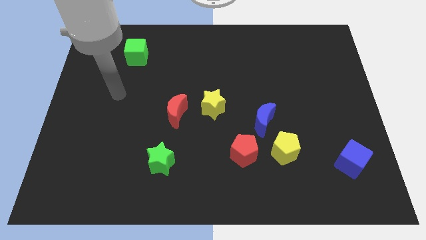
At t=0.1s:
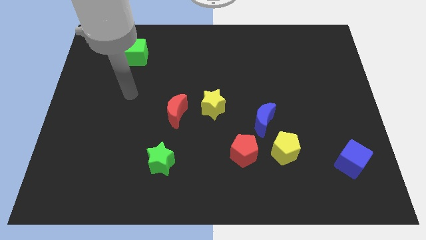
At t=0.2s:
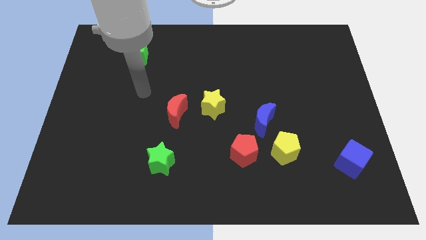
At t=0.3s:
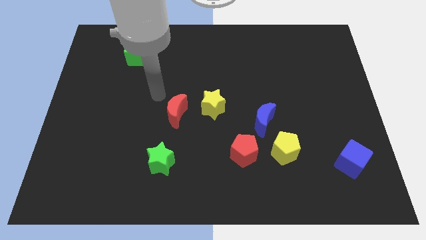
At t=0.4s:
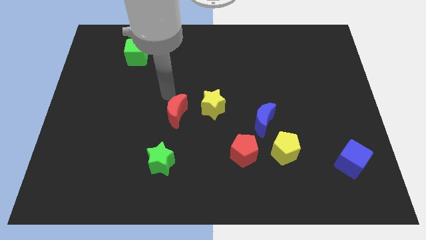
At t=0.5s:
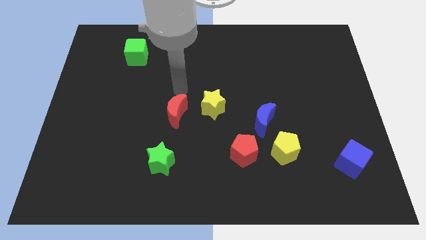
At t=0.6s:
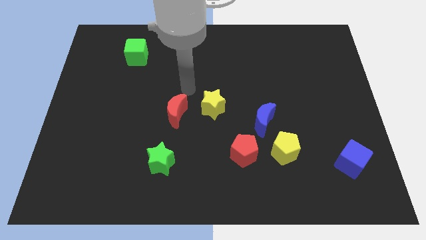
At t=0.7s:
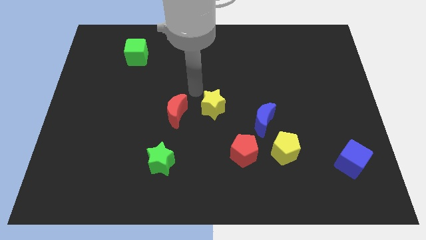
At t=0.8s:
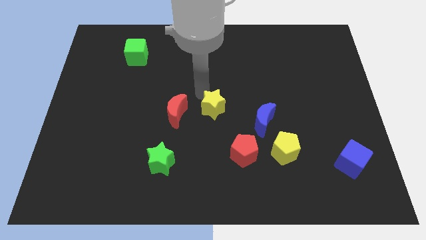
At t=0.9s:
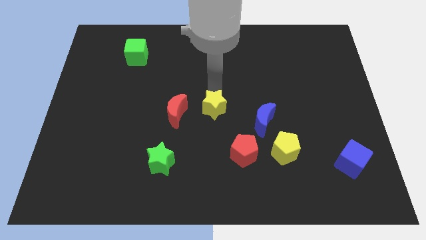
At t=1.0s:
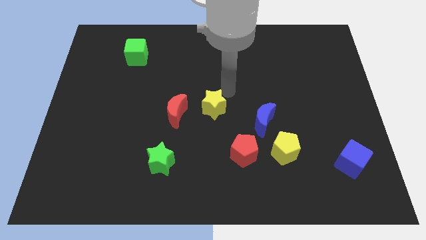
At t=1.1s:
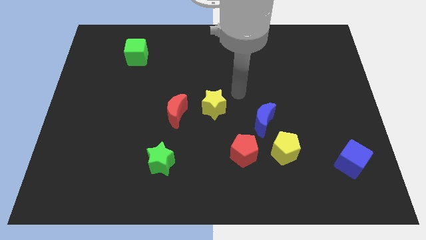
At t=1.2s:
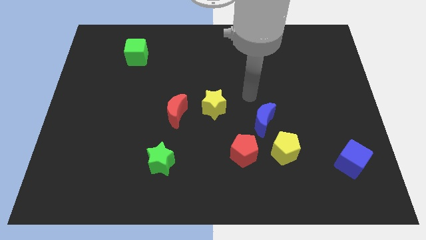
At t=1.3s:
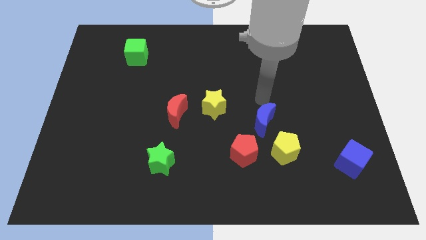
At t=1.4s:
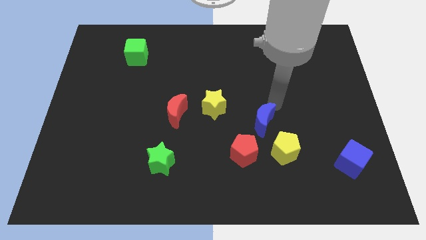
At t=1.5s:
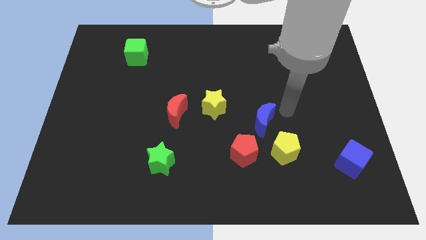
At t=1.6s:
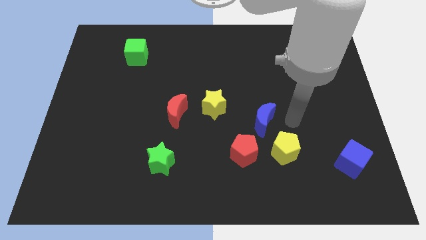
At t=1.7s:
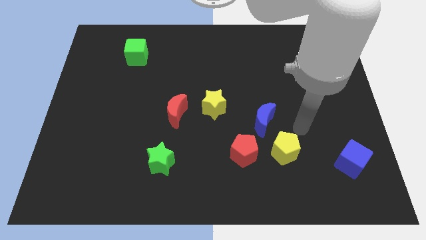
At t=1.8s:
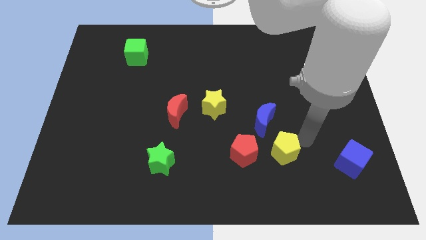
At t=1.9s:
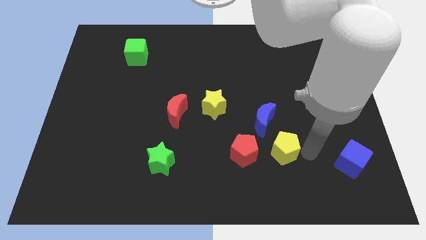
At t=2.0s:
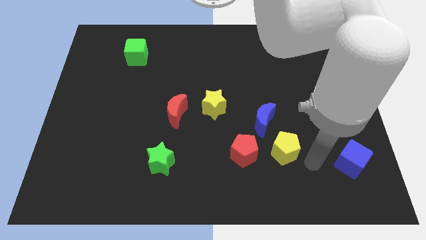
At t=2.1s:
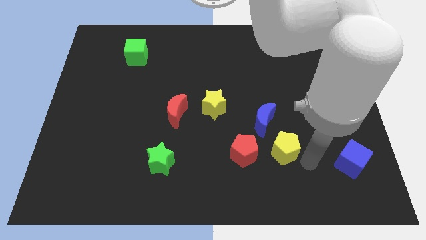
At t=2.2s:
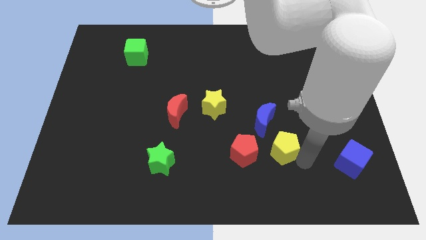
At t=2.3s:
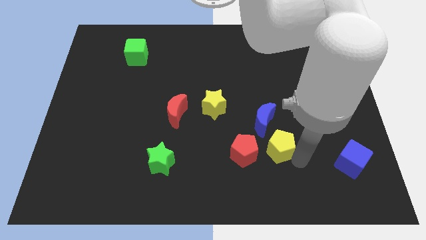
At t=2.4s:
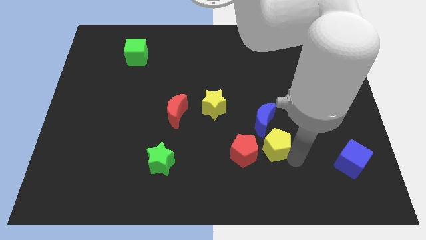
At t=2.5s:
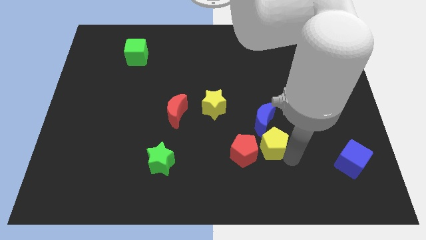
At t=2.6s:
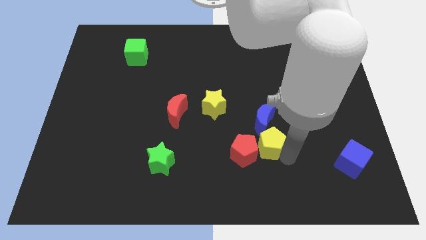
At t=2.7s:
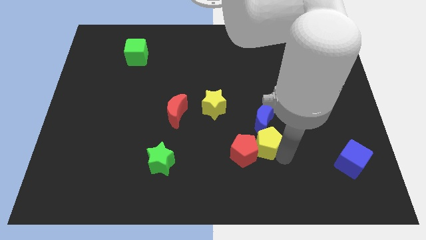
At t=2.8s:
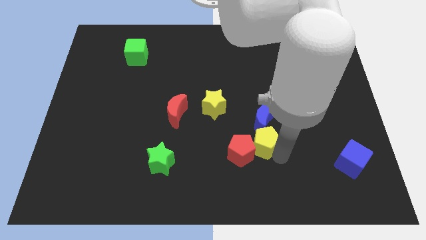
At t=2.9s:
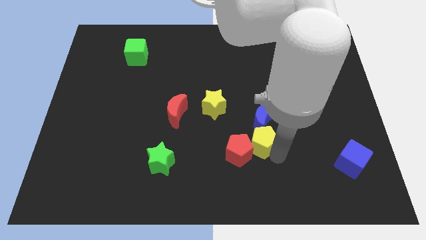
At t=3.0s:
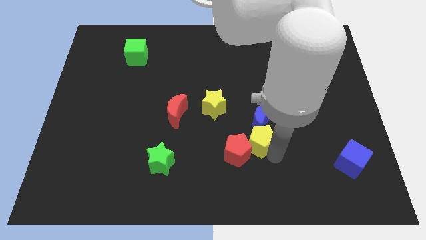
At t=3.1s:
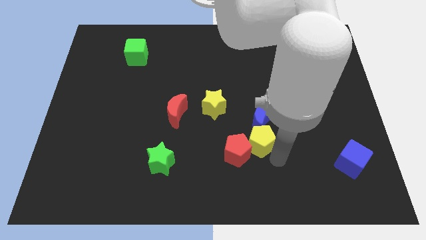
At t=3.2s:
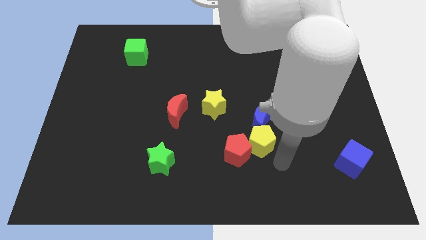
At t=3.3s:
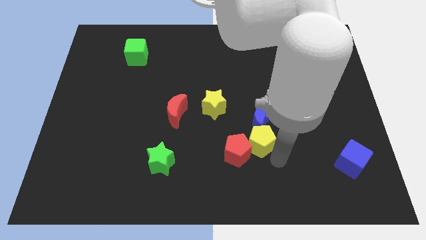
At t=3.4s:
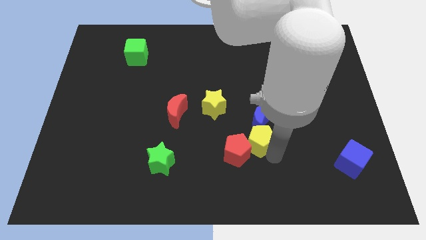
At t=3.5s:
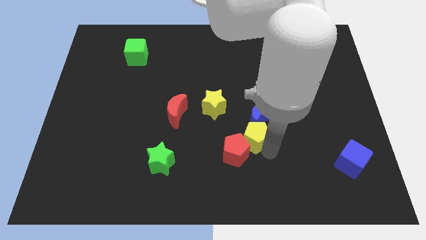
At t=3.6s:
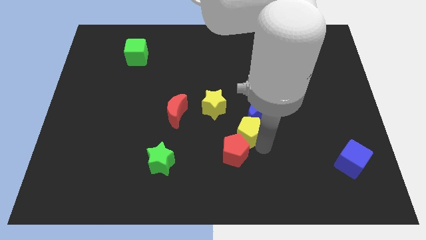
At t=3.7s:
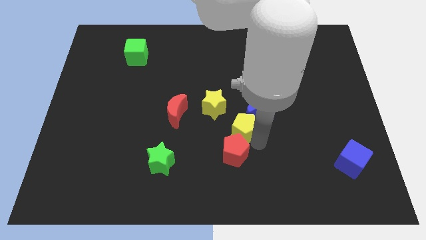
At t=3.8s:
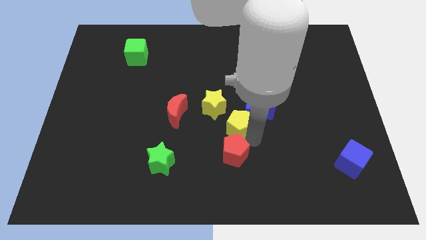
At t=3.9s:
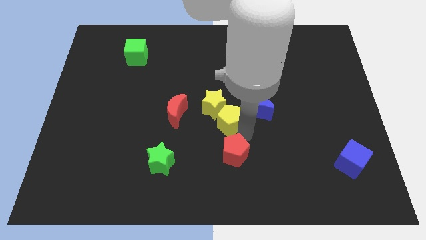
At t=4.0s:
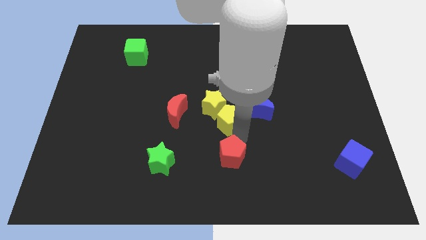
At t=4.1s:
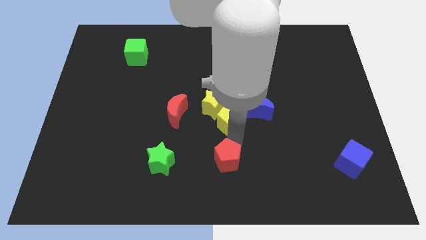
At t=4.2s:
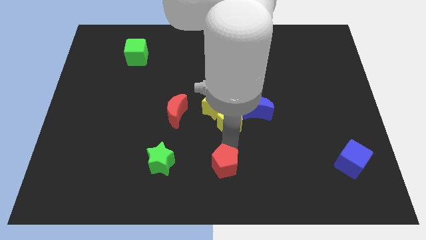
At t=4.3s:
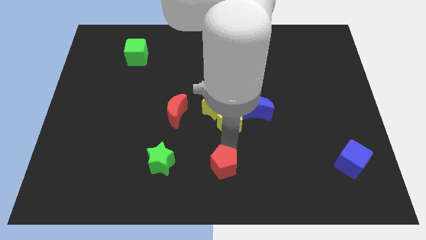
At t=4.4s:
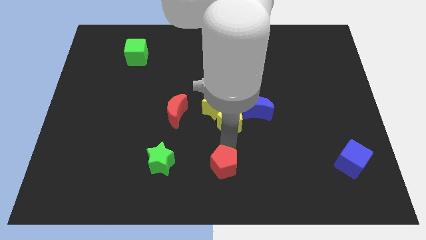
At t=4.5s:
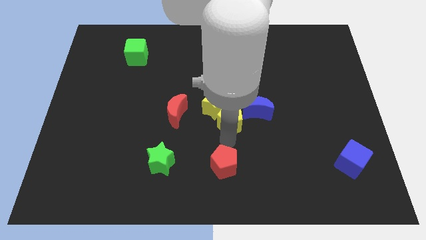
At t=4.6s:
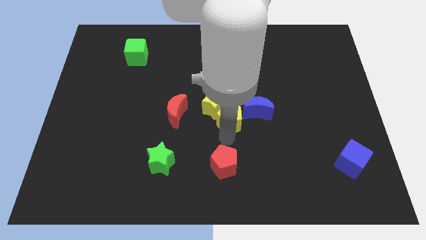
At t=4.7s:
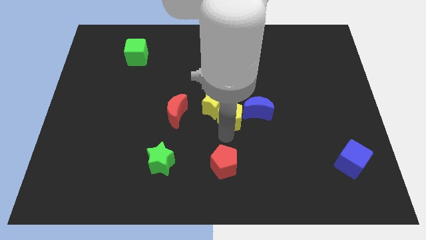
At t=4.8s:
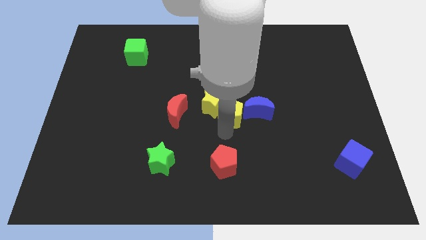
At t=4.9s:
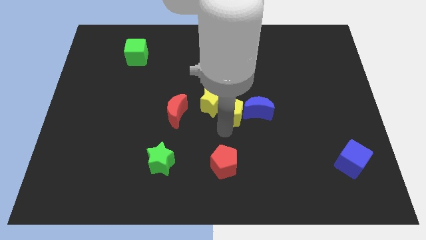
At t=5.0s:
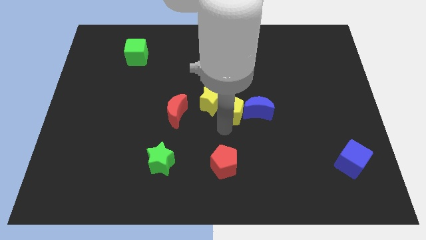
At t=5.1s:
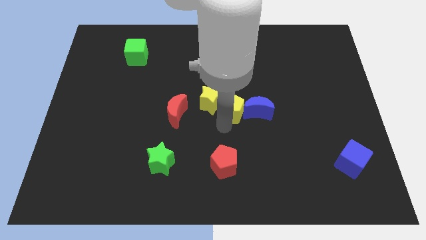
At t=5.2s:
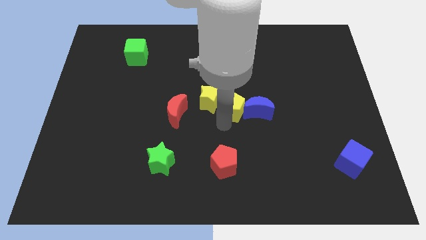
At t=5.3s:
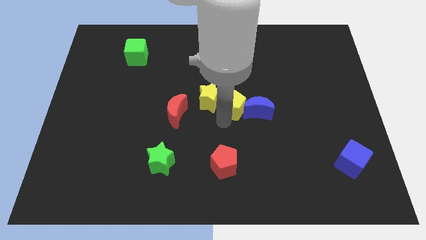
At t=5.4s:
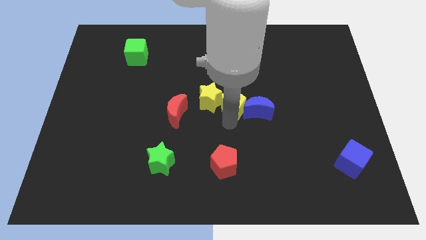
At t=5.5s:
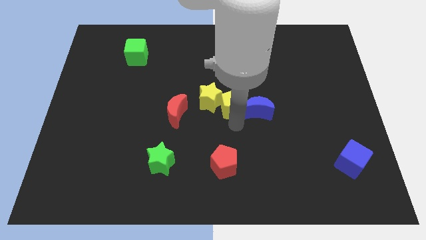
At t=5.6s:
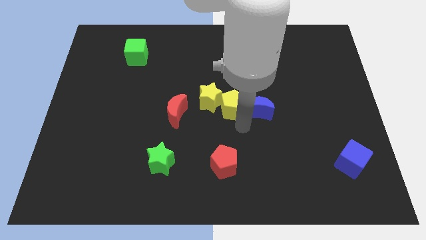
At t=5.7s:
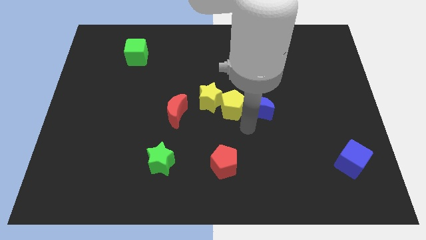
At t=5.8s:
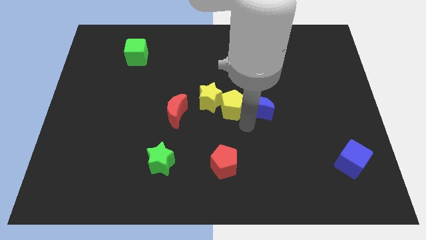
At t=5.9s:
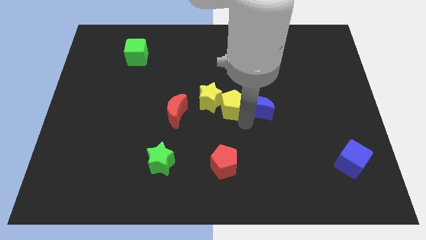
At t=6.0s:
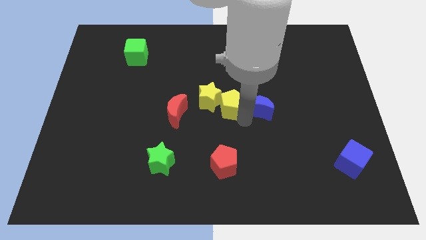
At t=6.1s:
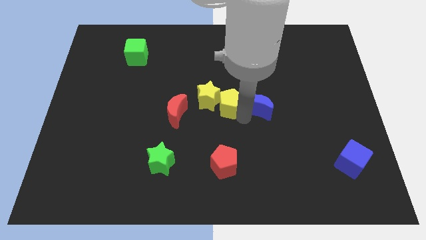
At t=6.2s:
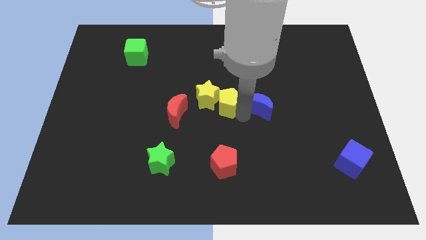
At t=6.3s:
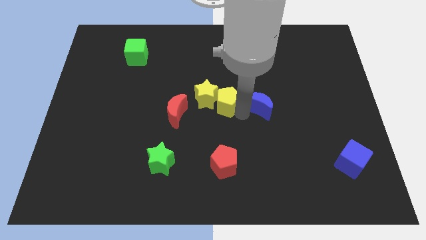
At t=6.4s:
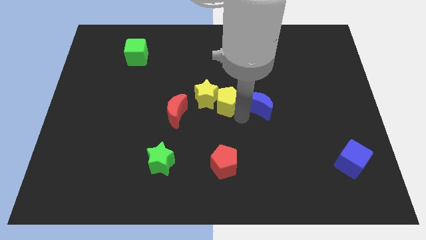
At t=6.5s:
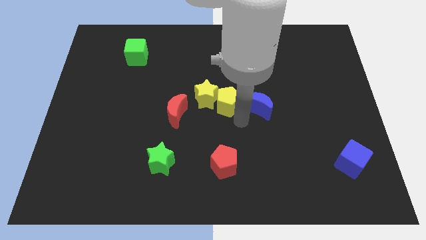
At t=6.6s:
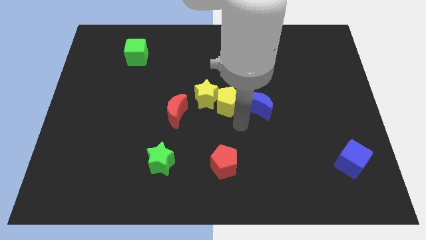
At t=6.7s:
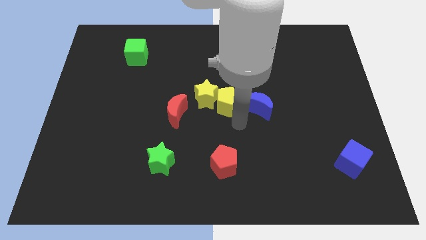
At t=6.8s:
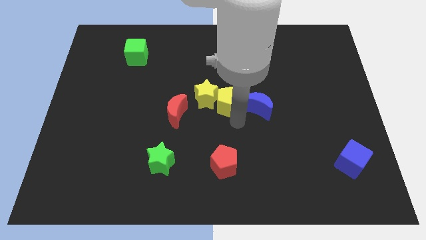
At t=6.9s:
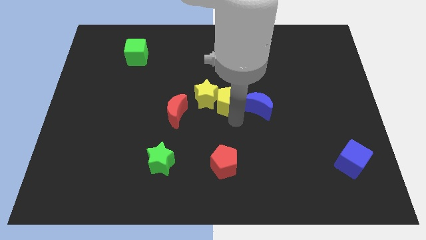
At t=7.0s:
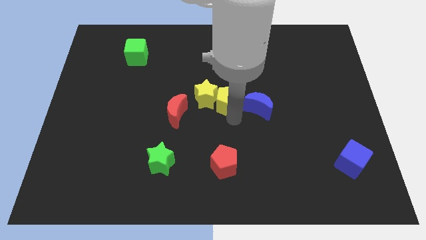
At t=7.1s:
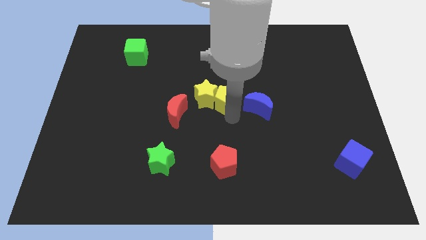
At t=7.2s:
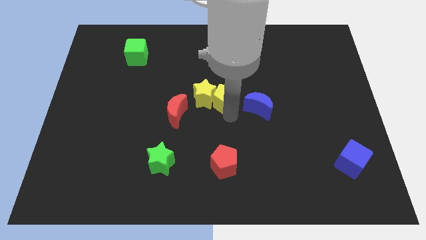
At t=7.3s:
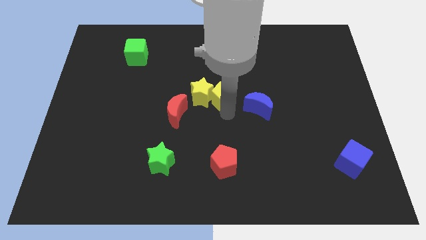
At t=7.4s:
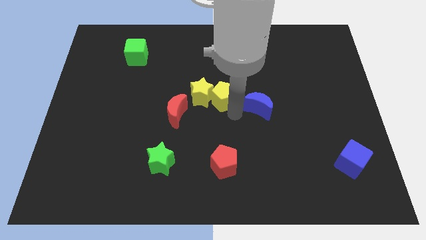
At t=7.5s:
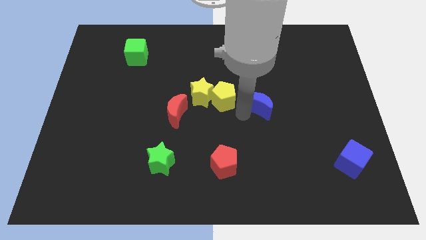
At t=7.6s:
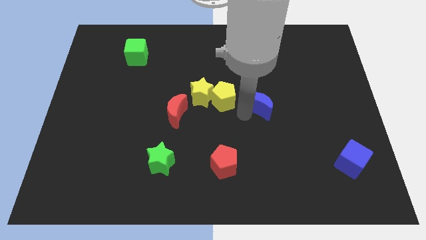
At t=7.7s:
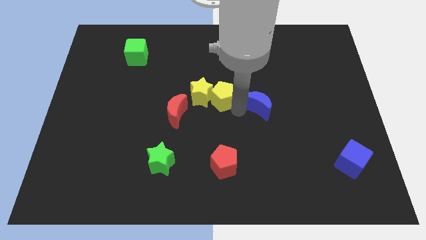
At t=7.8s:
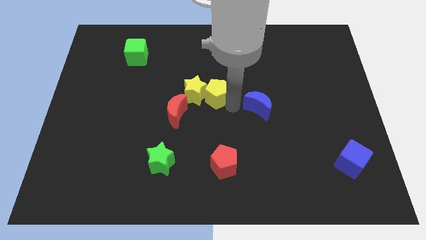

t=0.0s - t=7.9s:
slide the yellow pentagon up and then to the left
